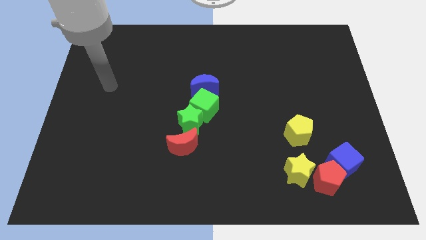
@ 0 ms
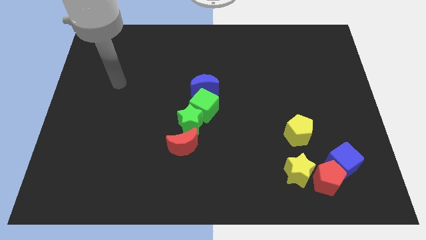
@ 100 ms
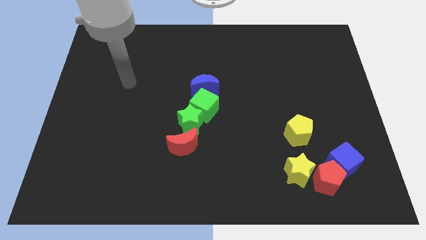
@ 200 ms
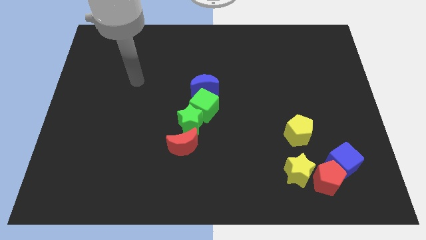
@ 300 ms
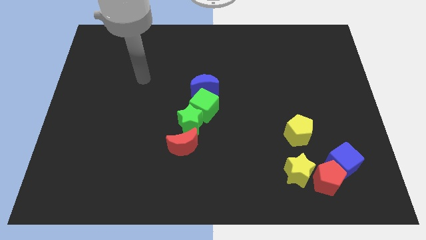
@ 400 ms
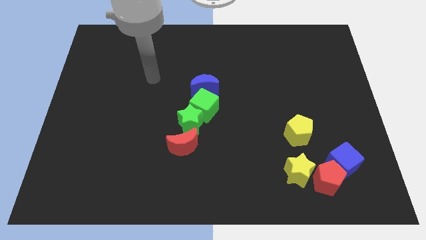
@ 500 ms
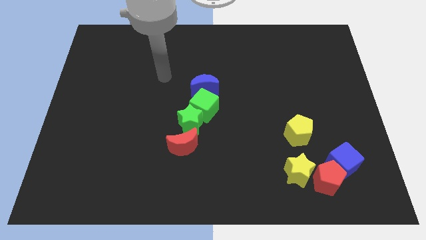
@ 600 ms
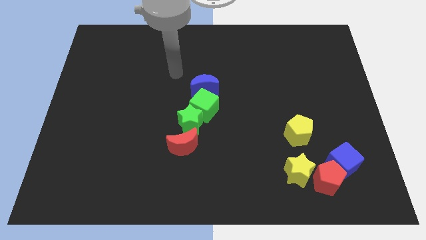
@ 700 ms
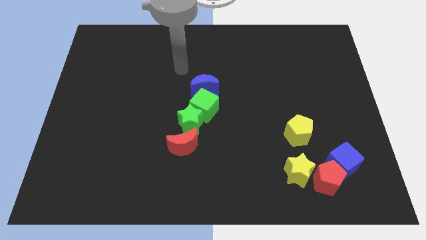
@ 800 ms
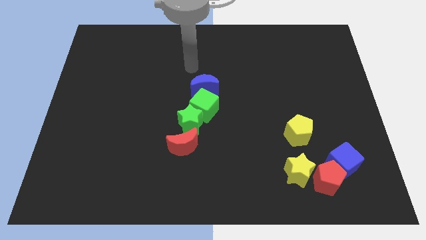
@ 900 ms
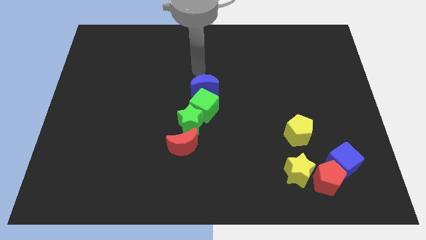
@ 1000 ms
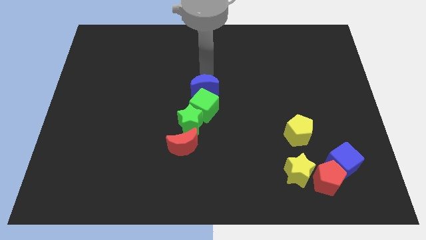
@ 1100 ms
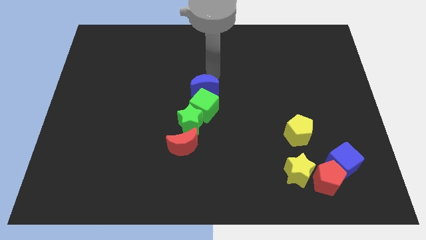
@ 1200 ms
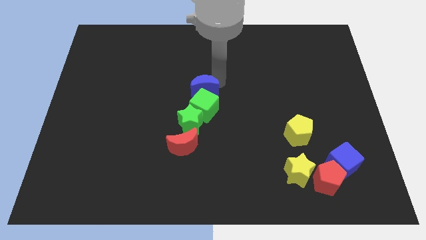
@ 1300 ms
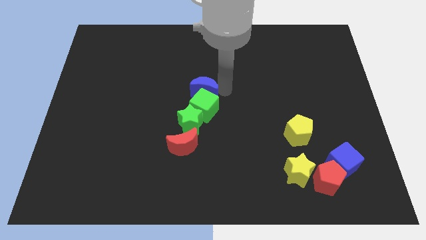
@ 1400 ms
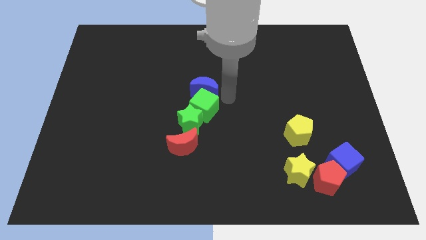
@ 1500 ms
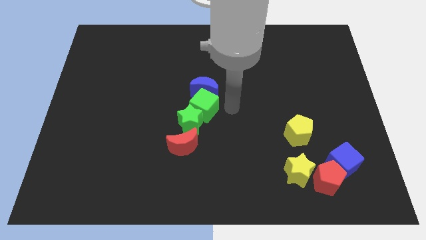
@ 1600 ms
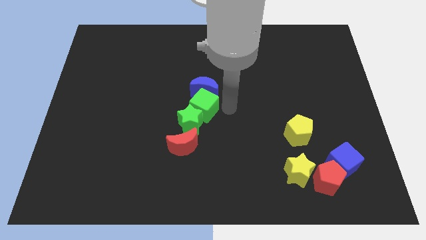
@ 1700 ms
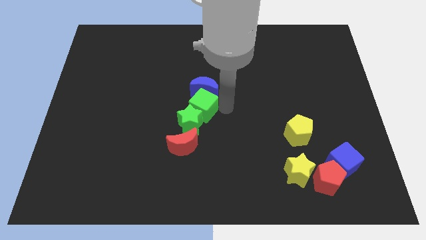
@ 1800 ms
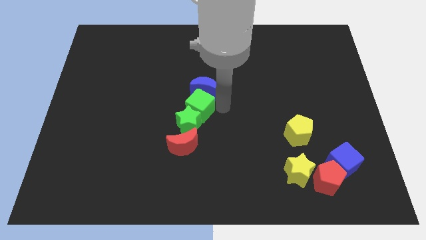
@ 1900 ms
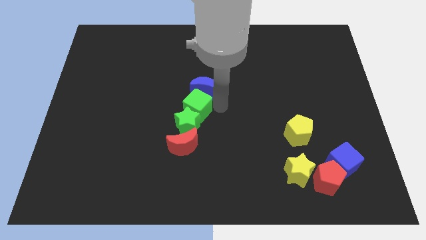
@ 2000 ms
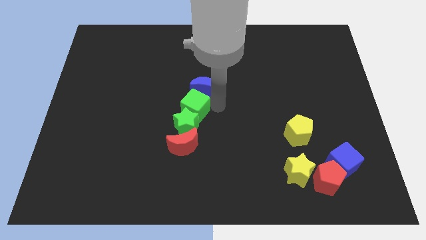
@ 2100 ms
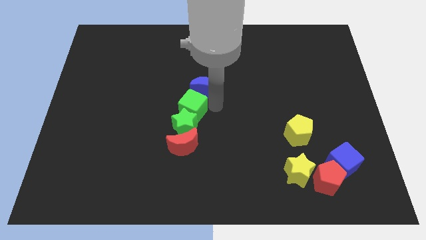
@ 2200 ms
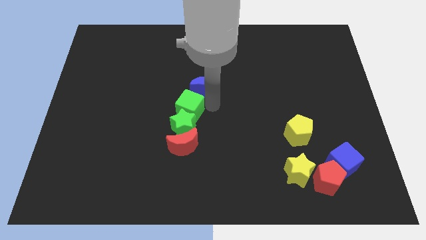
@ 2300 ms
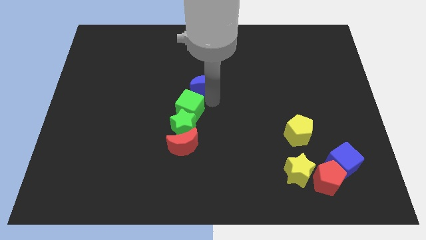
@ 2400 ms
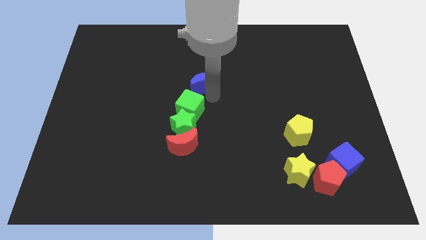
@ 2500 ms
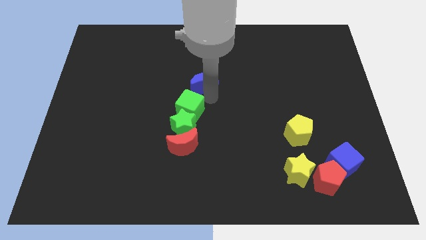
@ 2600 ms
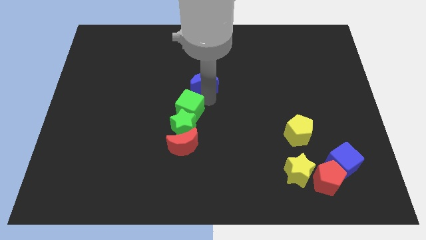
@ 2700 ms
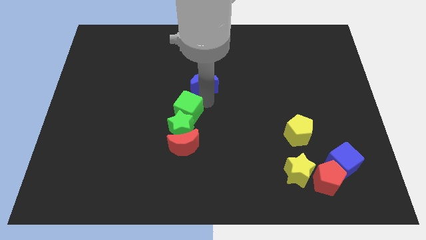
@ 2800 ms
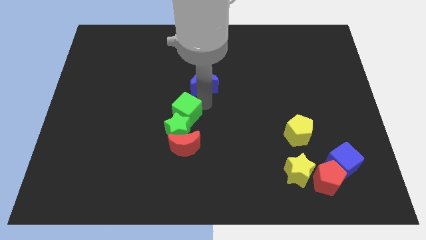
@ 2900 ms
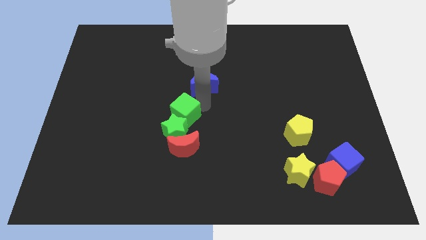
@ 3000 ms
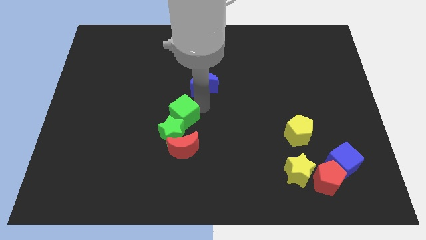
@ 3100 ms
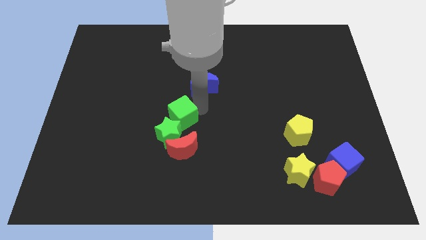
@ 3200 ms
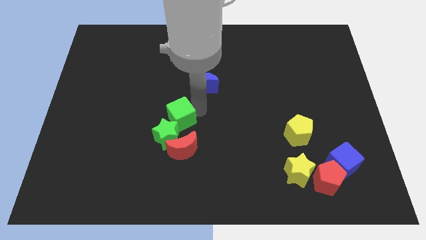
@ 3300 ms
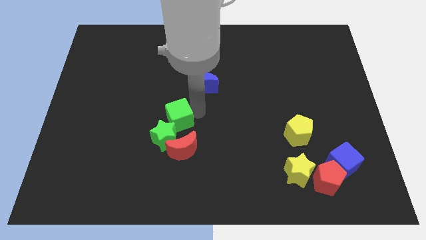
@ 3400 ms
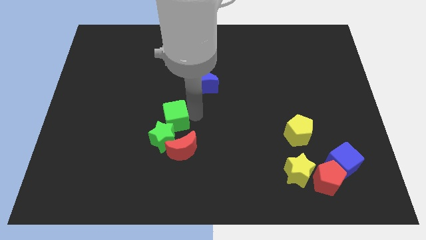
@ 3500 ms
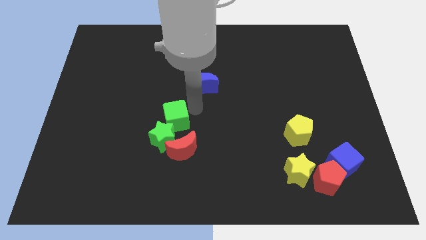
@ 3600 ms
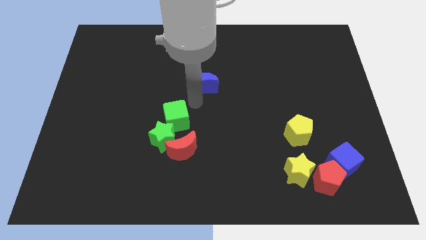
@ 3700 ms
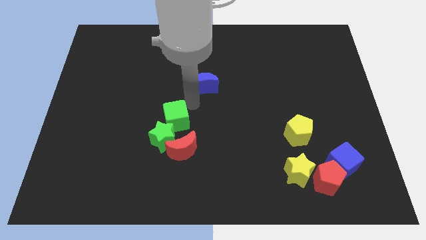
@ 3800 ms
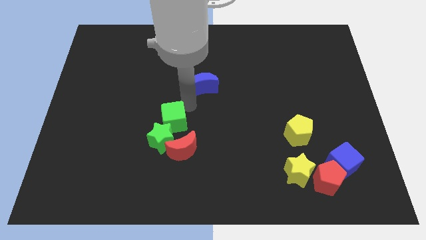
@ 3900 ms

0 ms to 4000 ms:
move the green cube diagonally down and left slightly

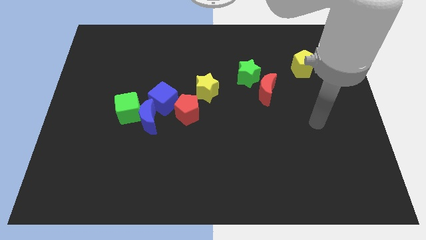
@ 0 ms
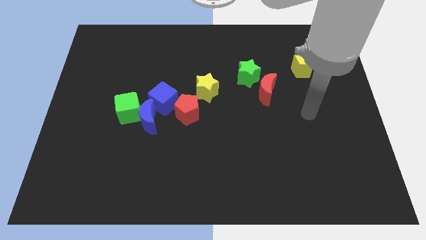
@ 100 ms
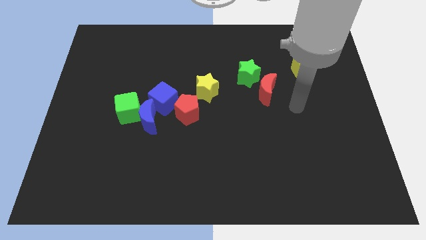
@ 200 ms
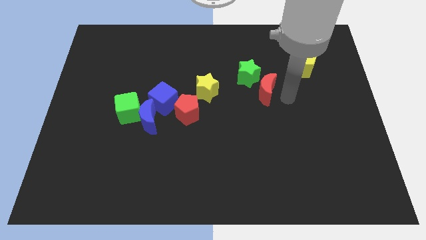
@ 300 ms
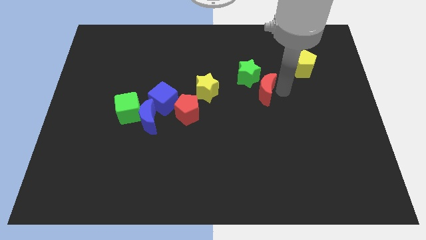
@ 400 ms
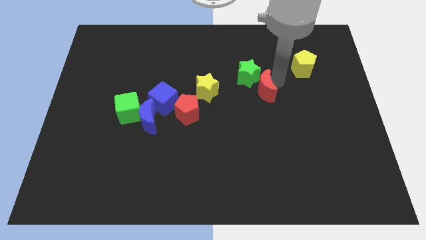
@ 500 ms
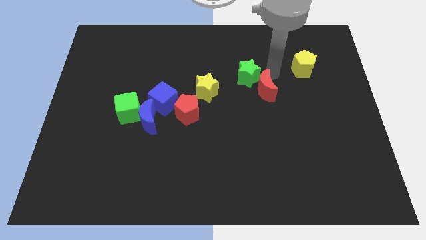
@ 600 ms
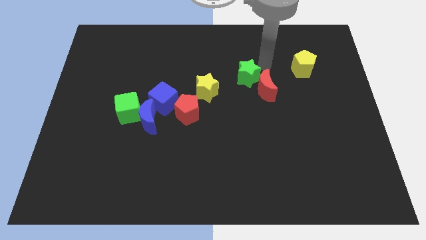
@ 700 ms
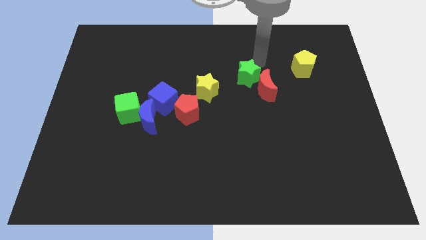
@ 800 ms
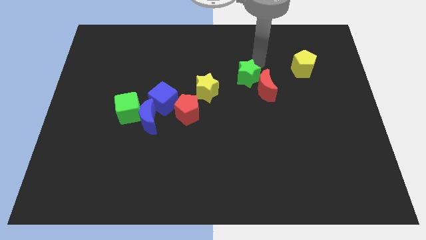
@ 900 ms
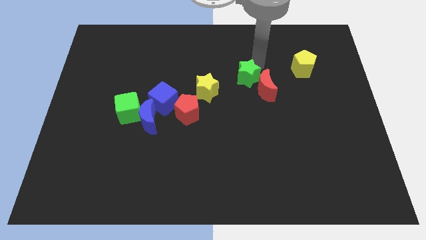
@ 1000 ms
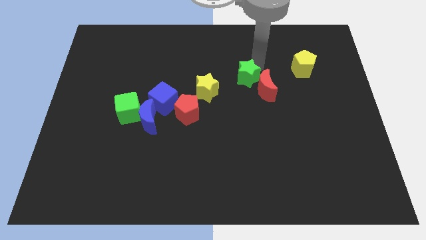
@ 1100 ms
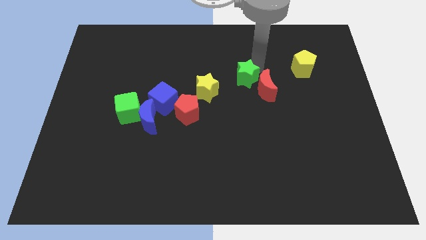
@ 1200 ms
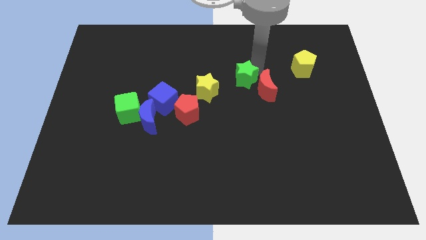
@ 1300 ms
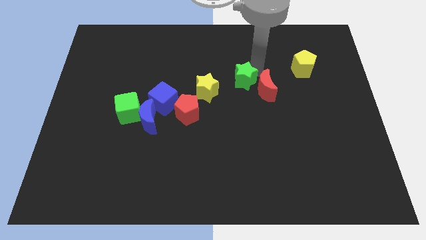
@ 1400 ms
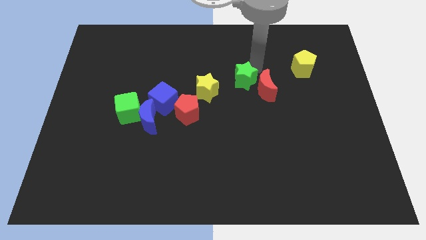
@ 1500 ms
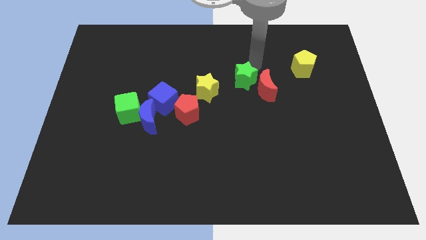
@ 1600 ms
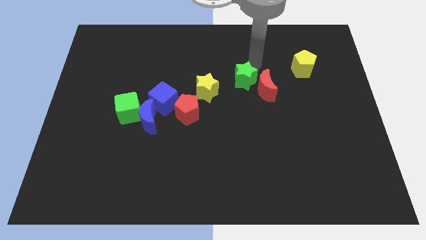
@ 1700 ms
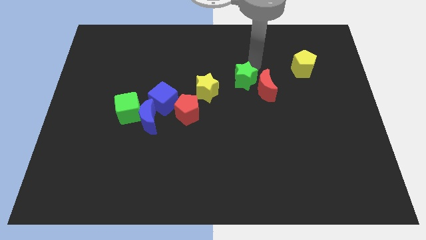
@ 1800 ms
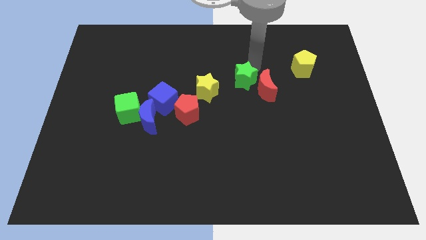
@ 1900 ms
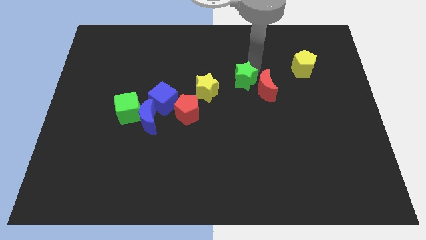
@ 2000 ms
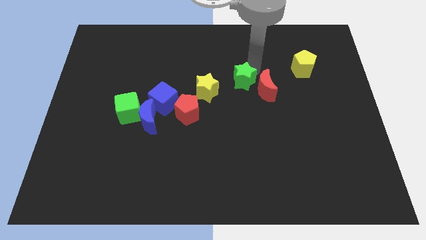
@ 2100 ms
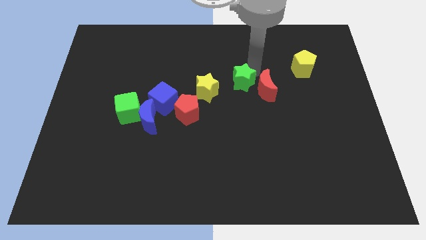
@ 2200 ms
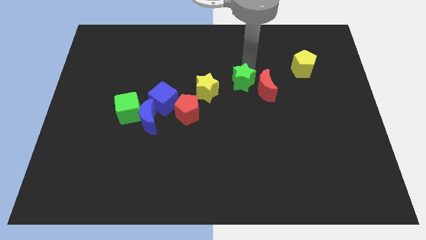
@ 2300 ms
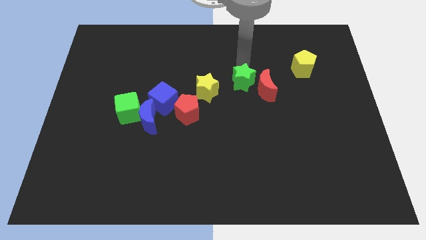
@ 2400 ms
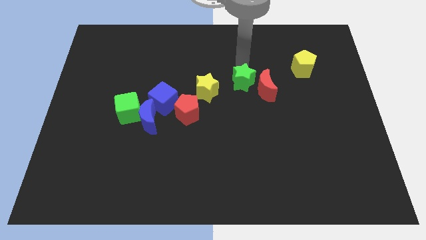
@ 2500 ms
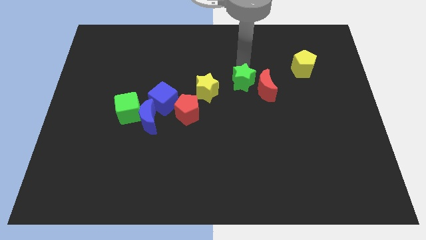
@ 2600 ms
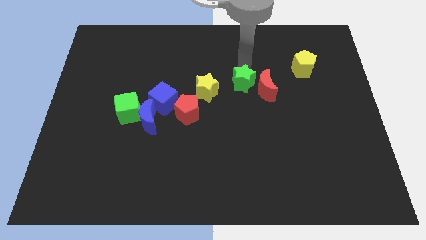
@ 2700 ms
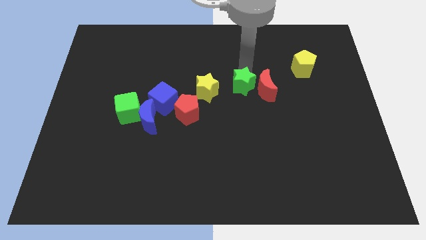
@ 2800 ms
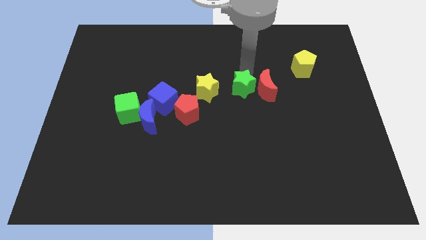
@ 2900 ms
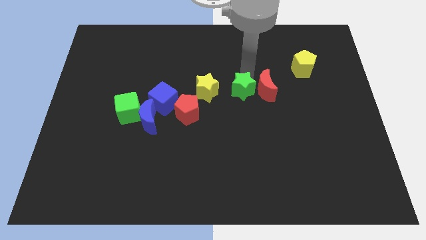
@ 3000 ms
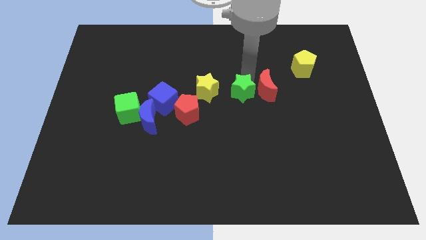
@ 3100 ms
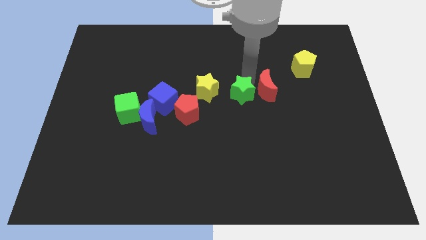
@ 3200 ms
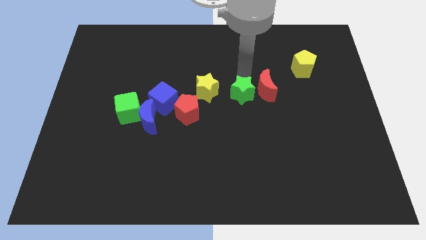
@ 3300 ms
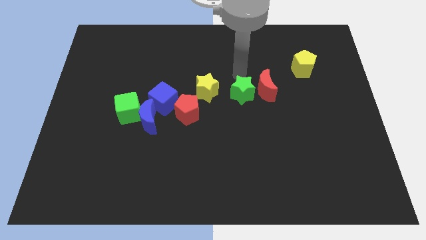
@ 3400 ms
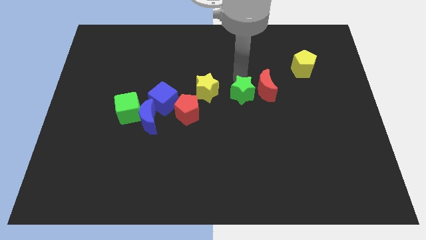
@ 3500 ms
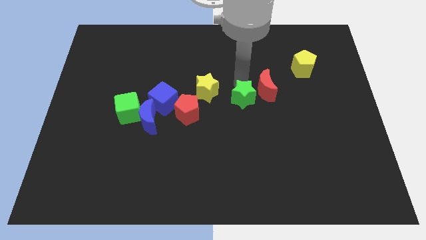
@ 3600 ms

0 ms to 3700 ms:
slide the green star downwards somewhat

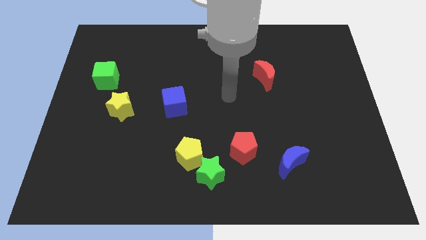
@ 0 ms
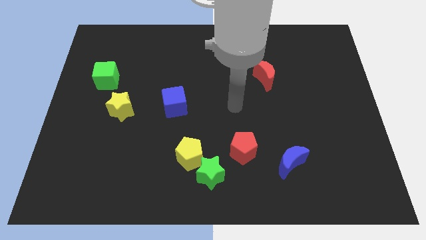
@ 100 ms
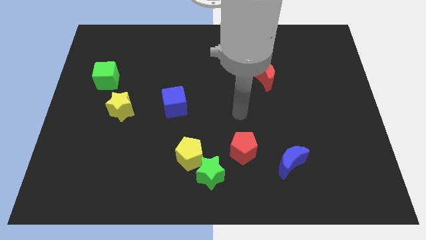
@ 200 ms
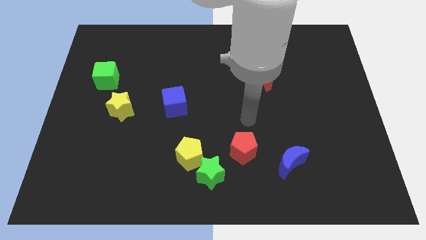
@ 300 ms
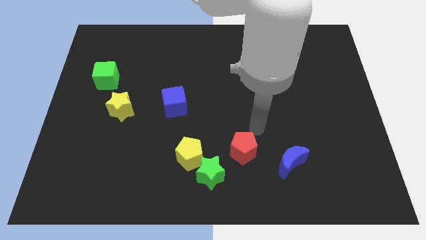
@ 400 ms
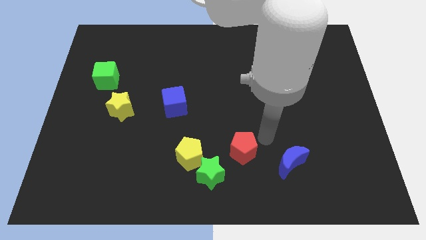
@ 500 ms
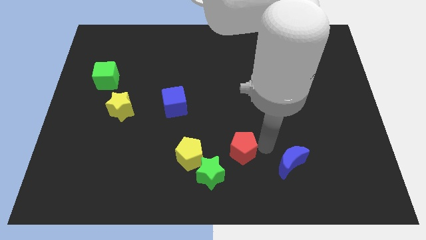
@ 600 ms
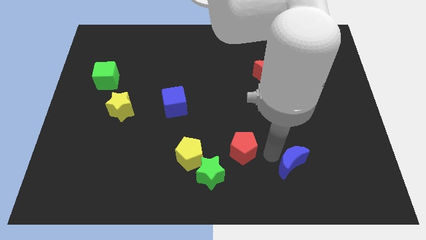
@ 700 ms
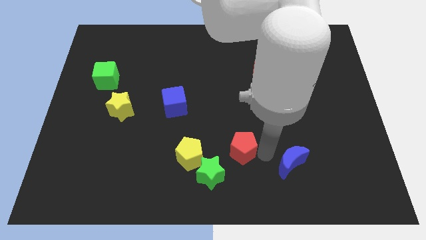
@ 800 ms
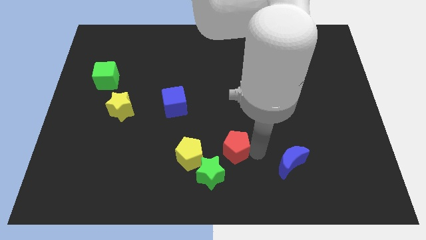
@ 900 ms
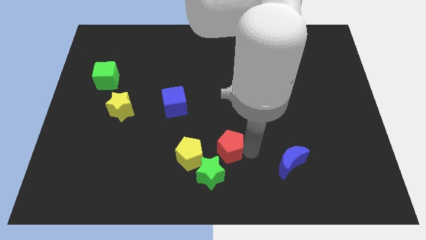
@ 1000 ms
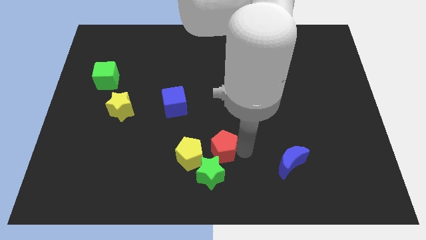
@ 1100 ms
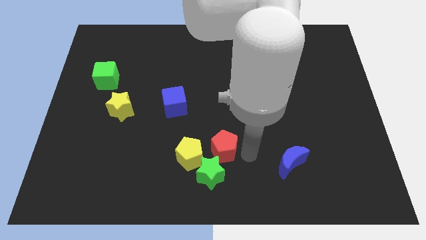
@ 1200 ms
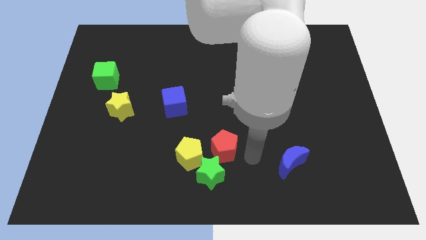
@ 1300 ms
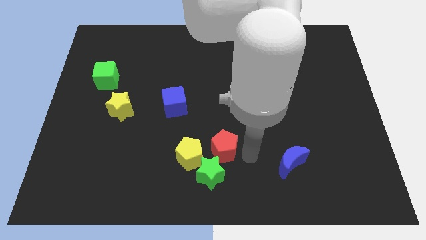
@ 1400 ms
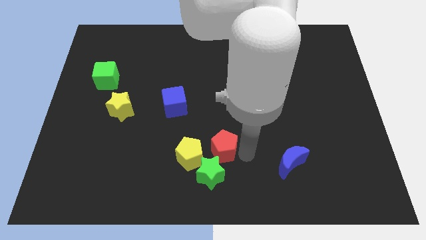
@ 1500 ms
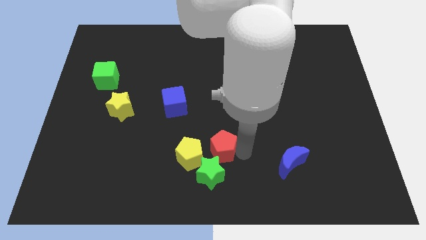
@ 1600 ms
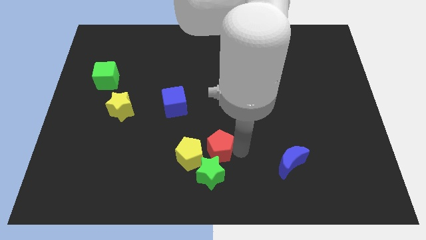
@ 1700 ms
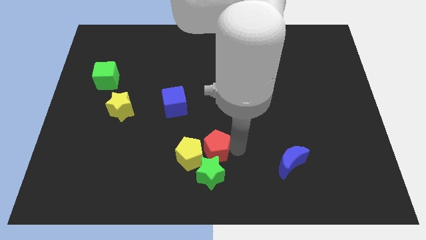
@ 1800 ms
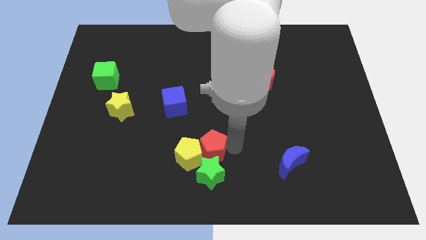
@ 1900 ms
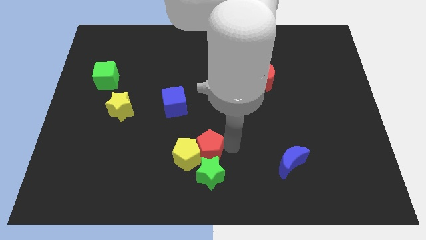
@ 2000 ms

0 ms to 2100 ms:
move the red pentagon to the left somewhat
